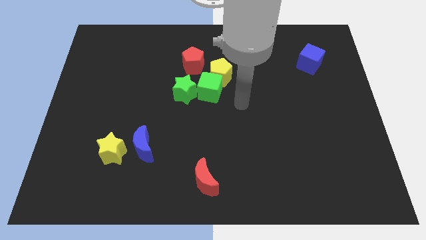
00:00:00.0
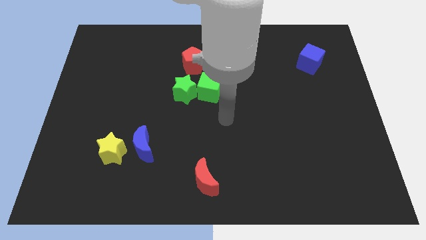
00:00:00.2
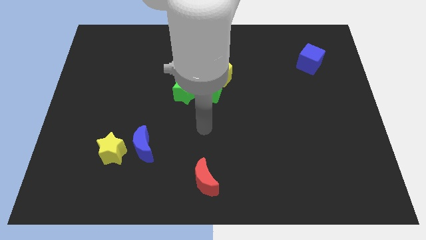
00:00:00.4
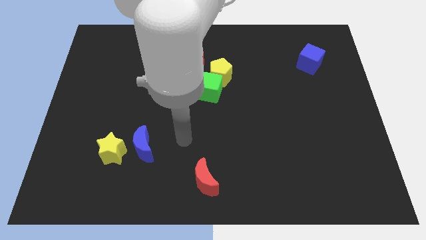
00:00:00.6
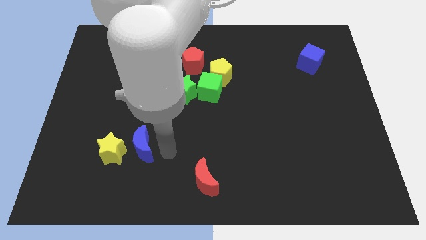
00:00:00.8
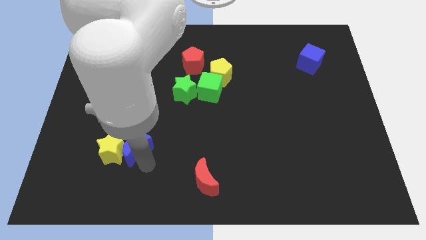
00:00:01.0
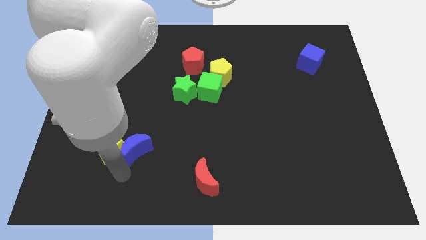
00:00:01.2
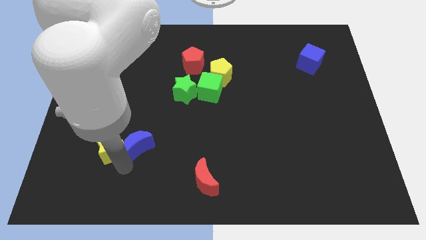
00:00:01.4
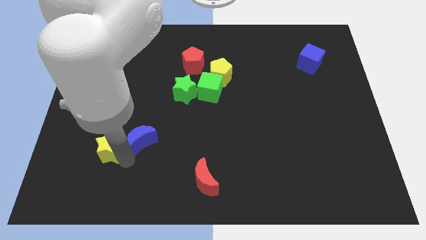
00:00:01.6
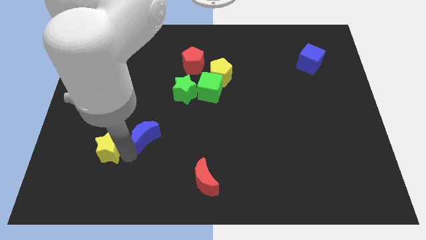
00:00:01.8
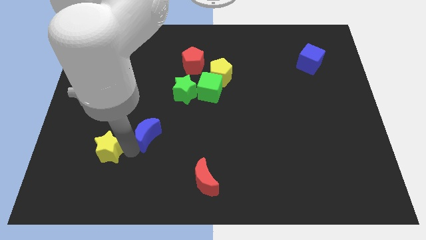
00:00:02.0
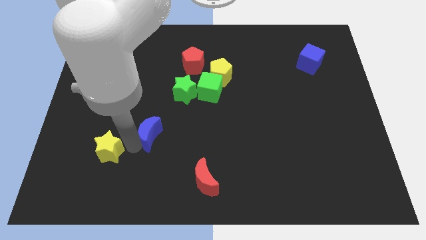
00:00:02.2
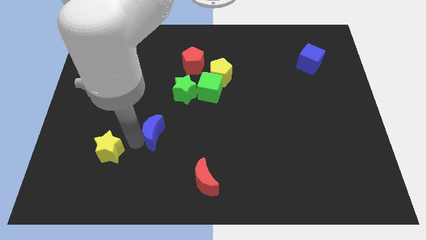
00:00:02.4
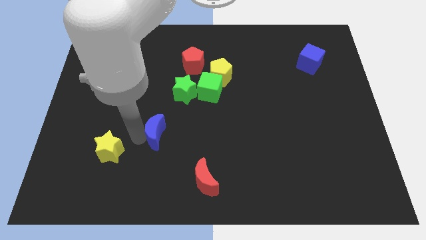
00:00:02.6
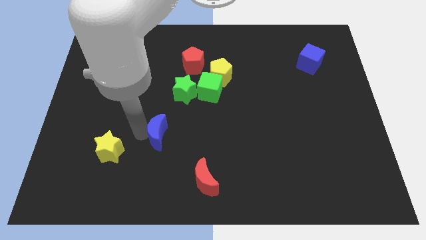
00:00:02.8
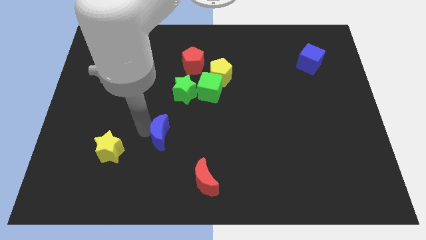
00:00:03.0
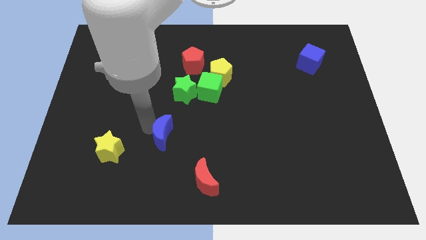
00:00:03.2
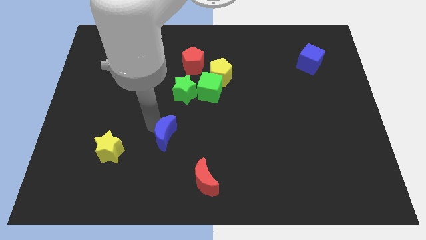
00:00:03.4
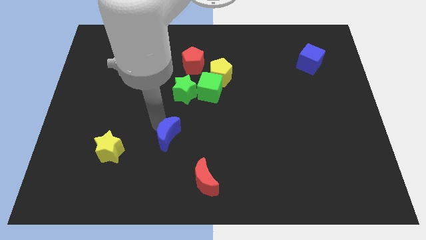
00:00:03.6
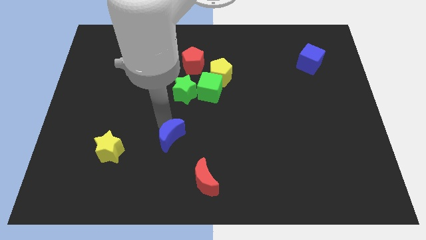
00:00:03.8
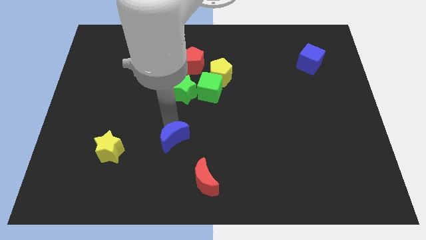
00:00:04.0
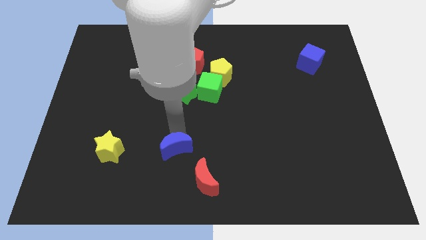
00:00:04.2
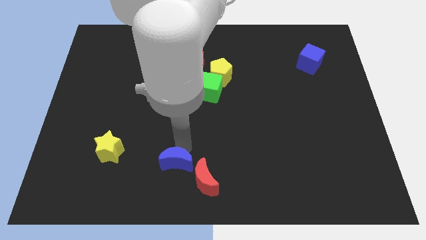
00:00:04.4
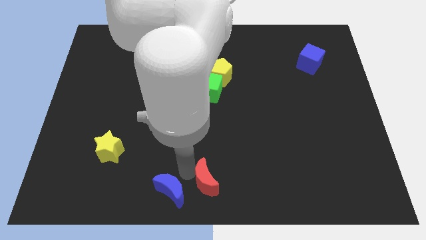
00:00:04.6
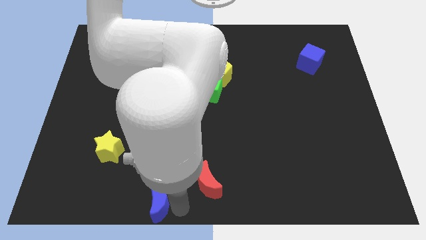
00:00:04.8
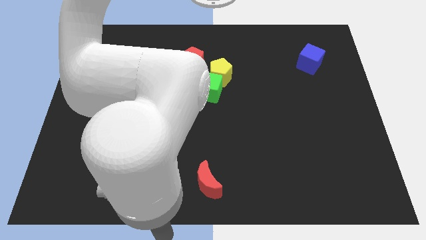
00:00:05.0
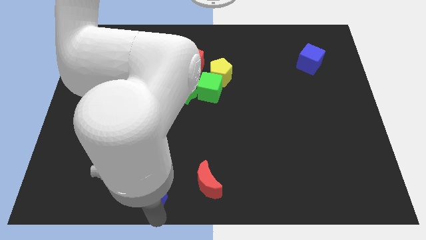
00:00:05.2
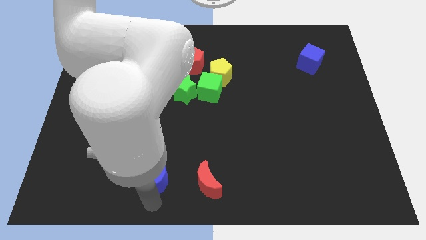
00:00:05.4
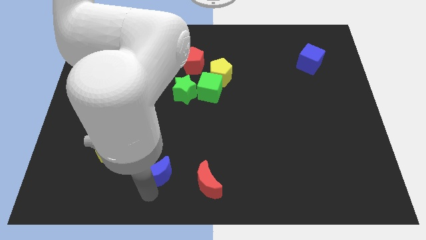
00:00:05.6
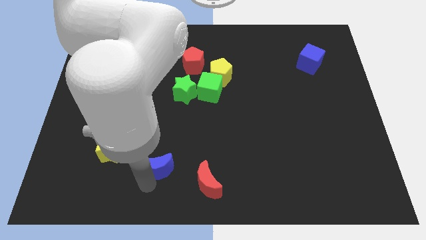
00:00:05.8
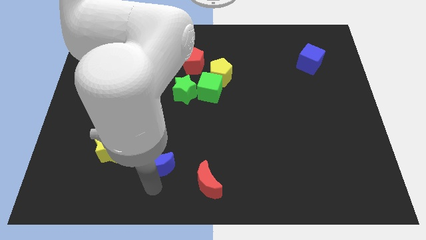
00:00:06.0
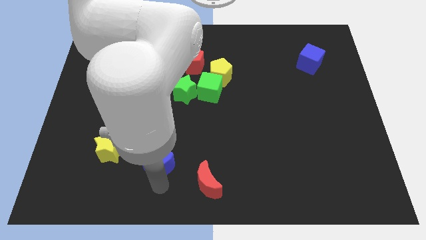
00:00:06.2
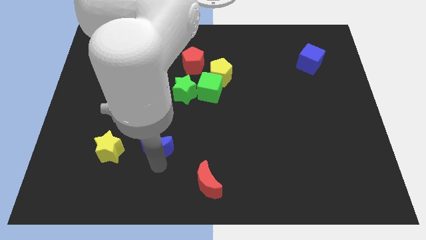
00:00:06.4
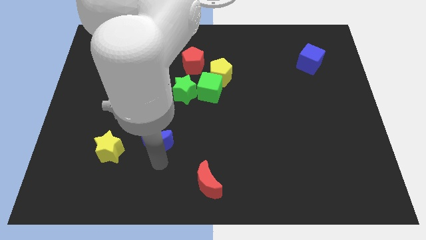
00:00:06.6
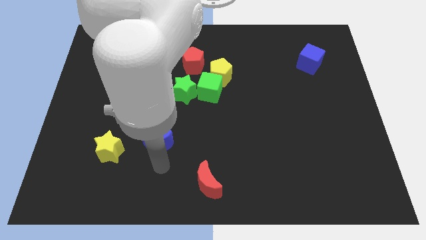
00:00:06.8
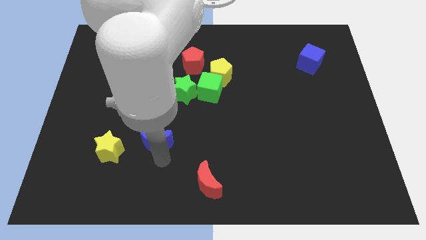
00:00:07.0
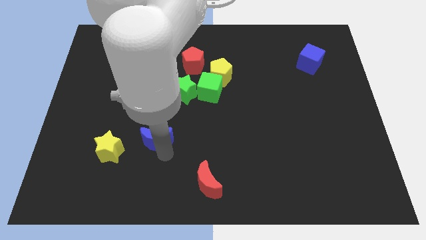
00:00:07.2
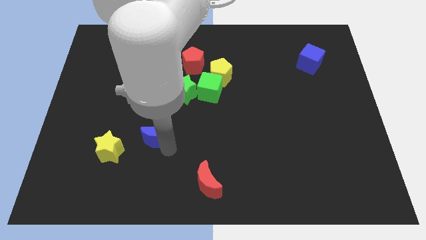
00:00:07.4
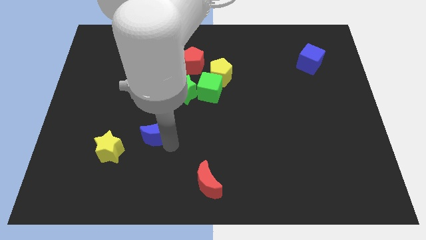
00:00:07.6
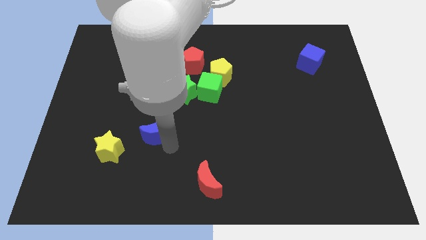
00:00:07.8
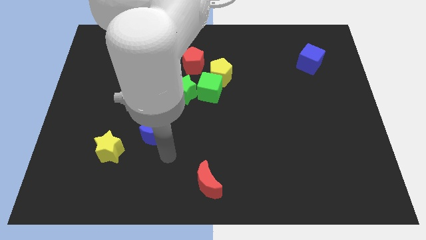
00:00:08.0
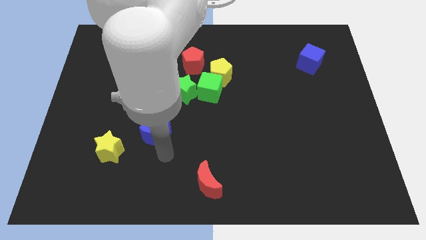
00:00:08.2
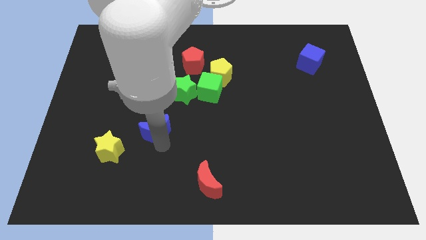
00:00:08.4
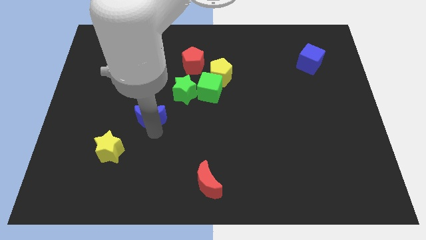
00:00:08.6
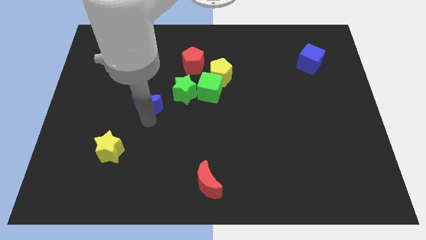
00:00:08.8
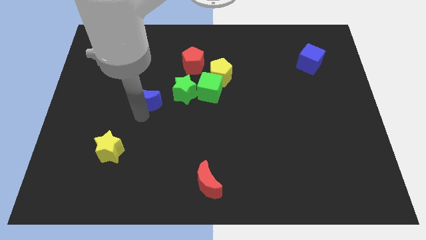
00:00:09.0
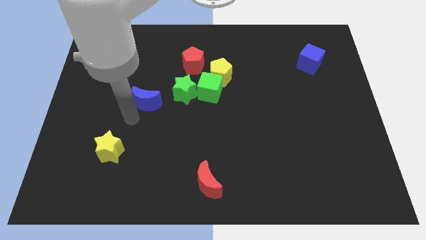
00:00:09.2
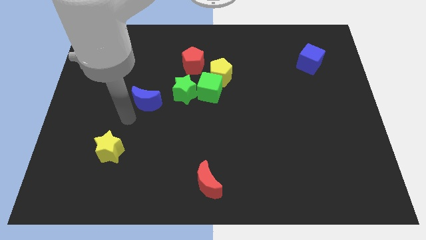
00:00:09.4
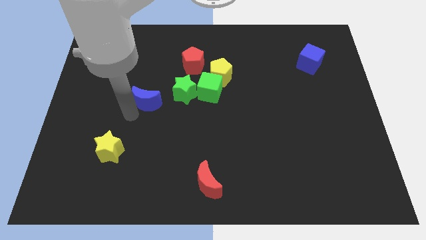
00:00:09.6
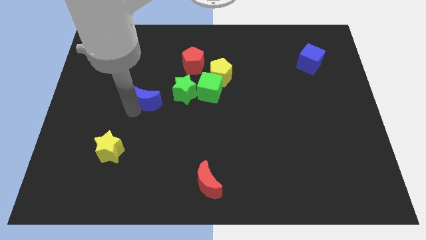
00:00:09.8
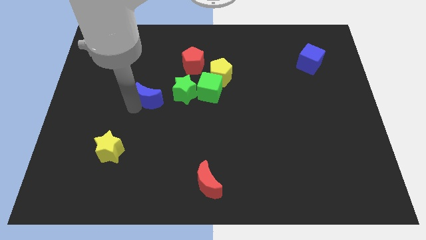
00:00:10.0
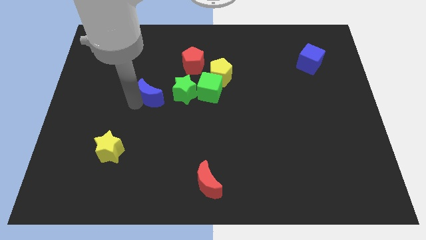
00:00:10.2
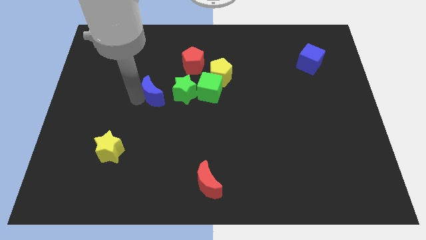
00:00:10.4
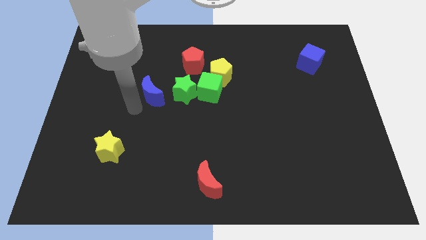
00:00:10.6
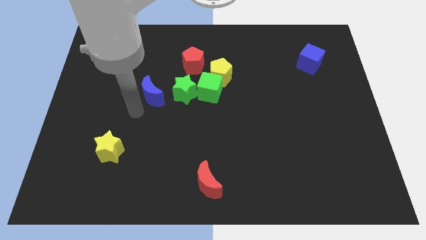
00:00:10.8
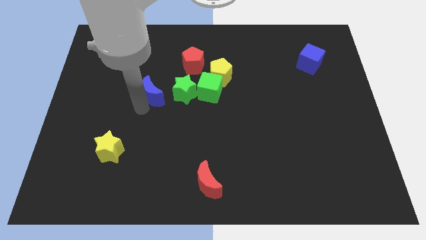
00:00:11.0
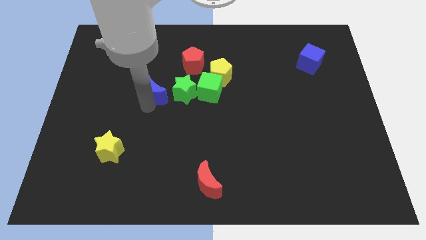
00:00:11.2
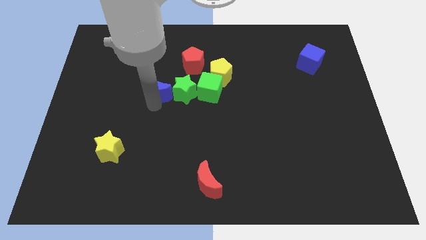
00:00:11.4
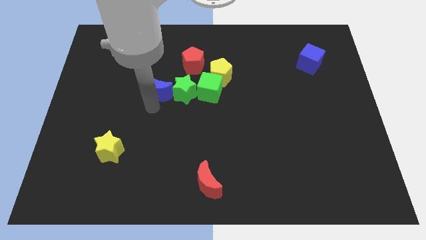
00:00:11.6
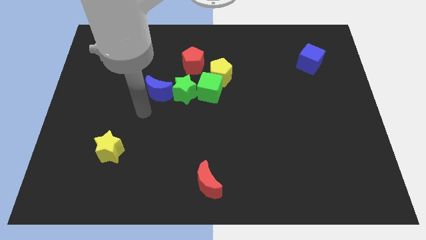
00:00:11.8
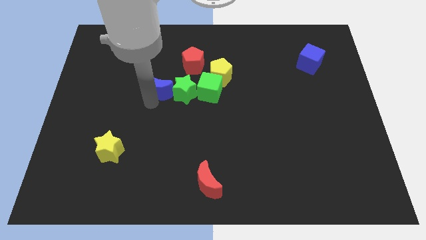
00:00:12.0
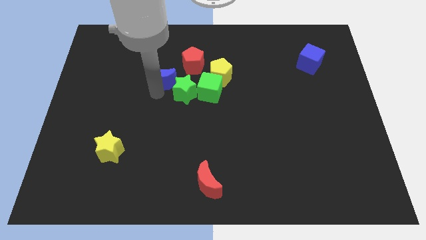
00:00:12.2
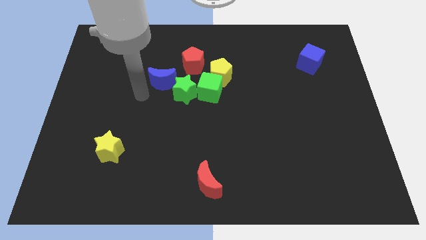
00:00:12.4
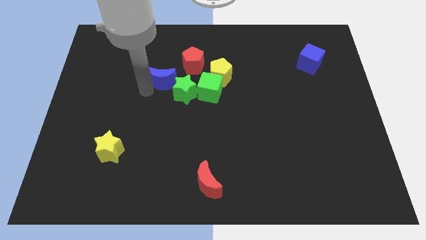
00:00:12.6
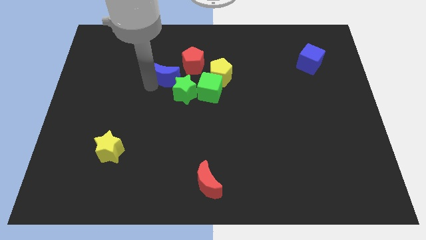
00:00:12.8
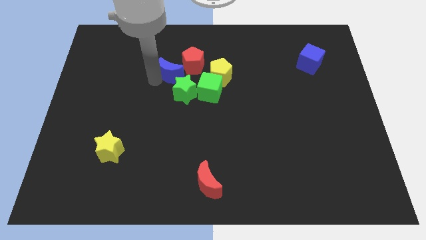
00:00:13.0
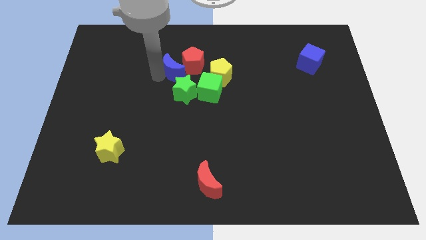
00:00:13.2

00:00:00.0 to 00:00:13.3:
put the blue moon to the red pentagon

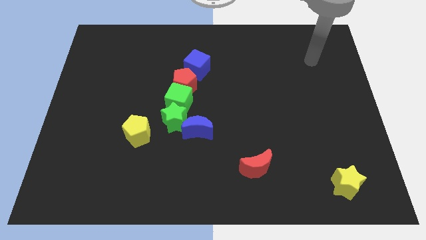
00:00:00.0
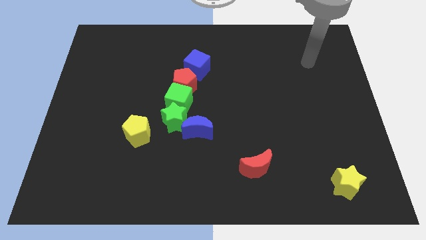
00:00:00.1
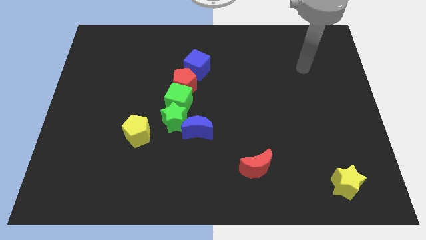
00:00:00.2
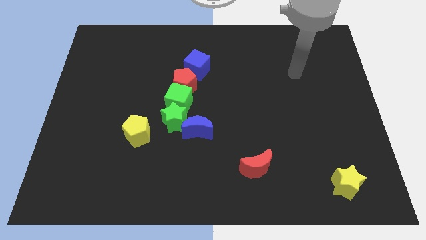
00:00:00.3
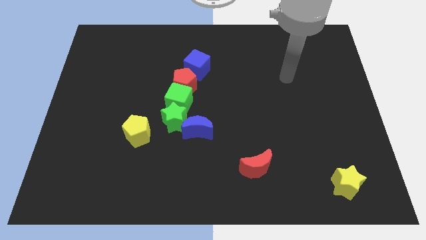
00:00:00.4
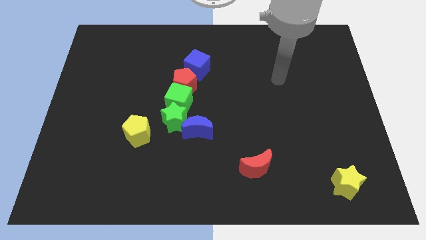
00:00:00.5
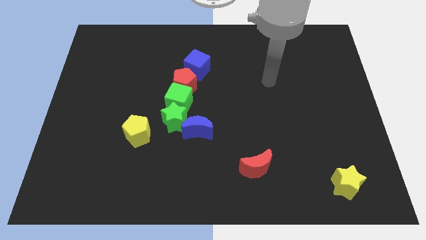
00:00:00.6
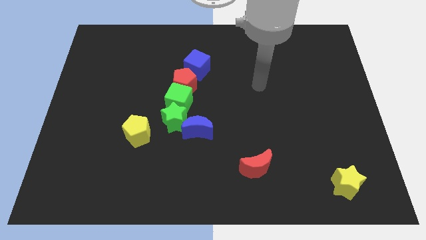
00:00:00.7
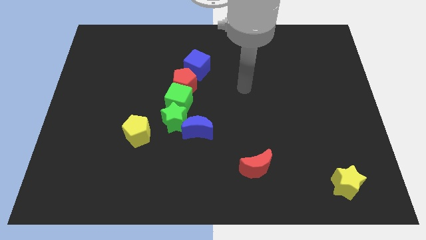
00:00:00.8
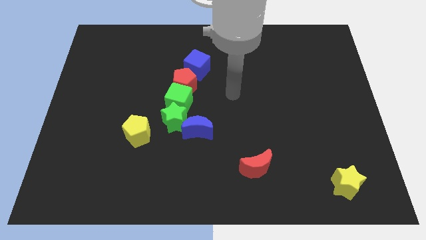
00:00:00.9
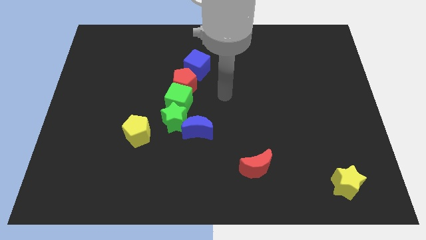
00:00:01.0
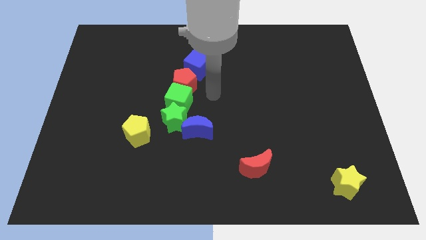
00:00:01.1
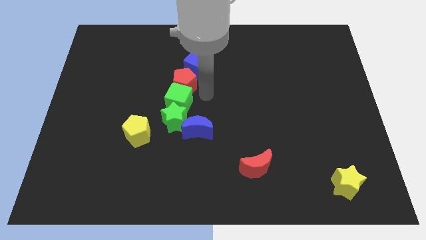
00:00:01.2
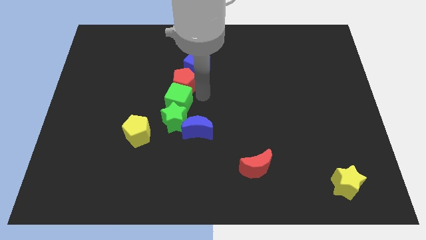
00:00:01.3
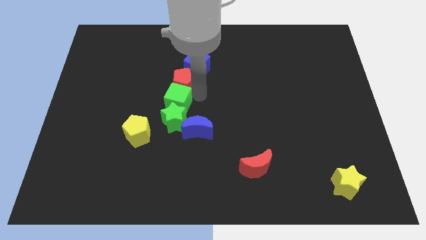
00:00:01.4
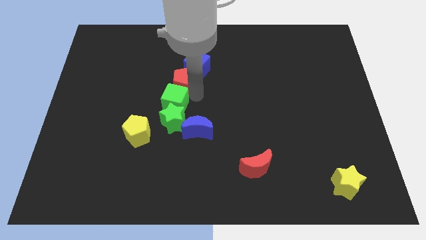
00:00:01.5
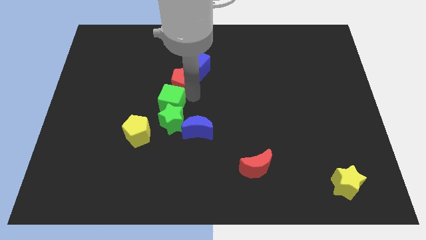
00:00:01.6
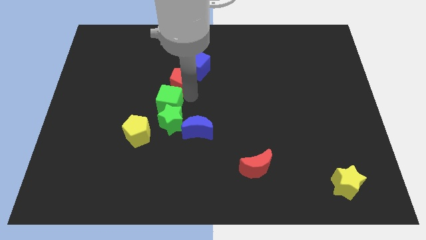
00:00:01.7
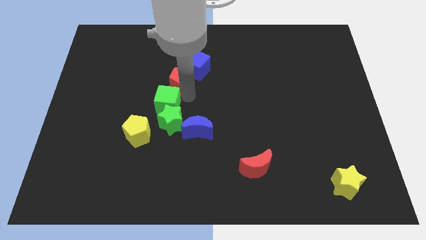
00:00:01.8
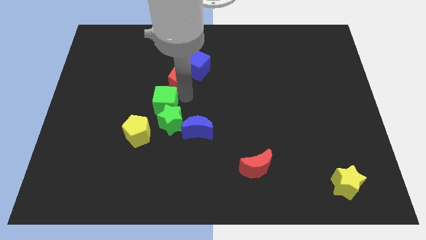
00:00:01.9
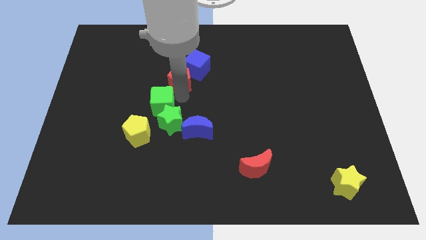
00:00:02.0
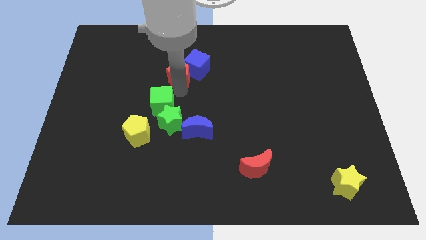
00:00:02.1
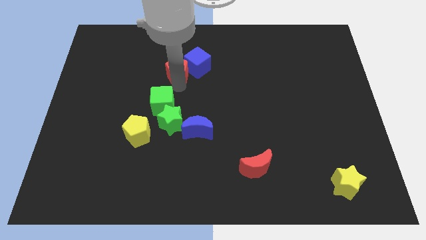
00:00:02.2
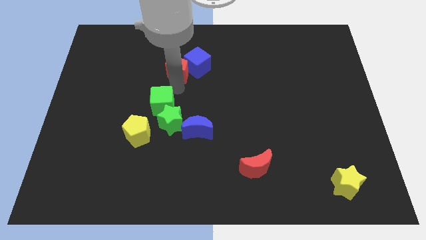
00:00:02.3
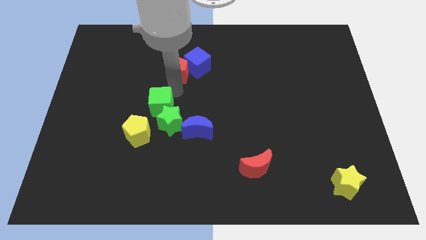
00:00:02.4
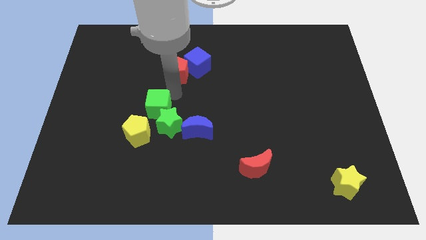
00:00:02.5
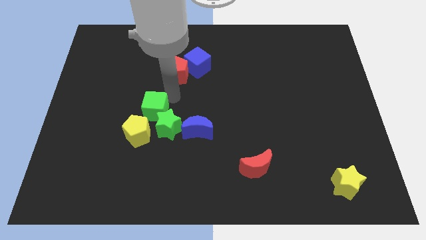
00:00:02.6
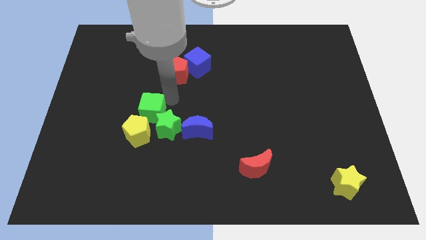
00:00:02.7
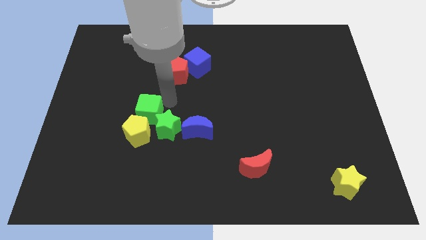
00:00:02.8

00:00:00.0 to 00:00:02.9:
slide the green cube to the yellow pentagon
